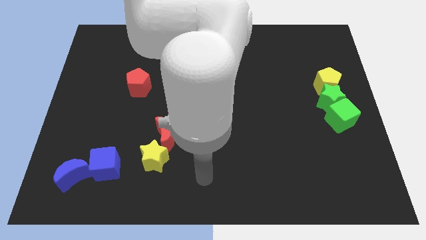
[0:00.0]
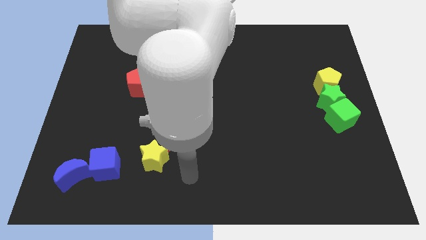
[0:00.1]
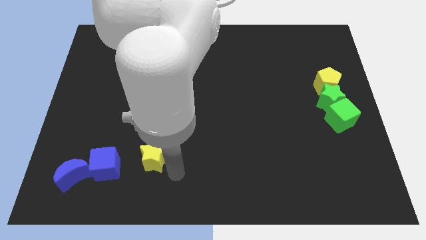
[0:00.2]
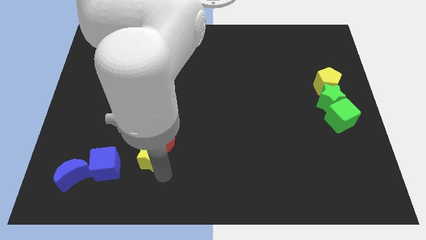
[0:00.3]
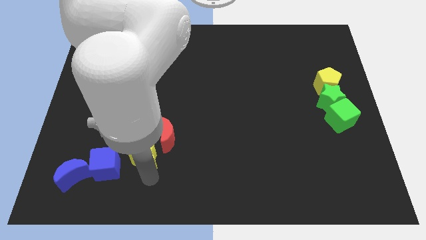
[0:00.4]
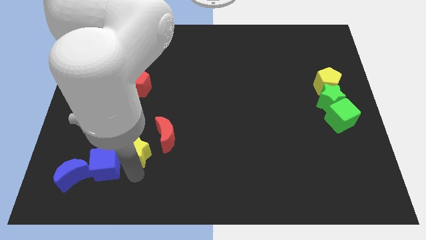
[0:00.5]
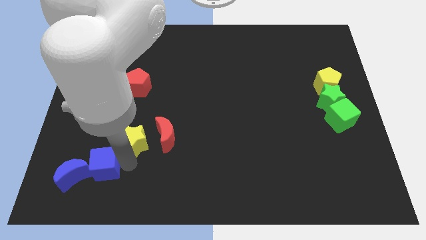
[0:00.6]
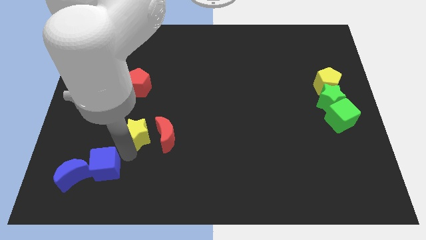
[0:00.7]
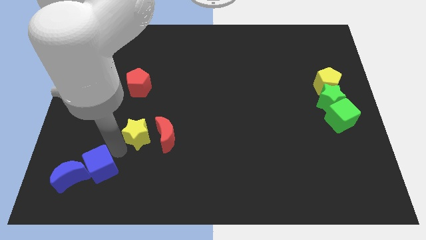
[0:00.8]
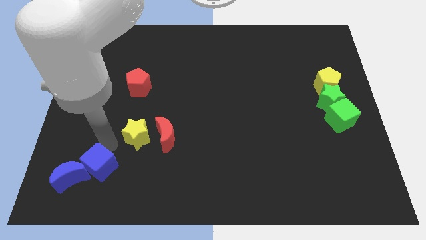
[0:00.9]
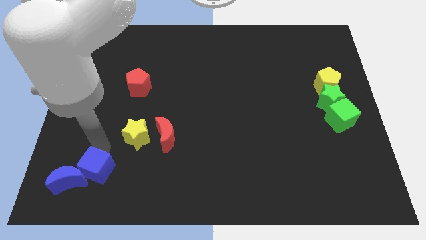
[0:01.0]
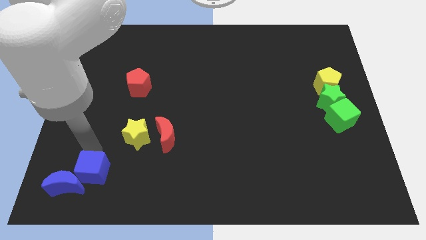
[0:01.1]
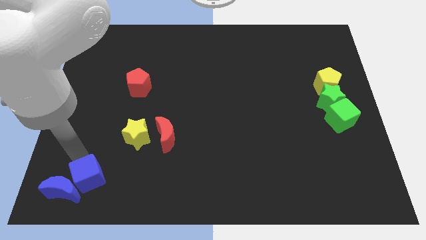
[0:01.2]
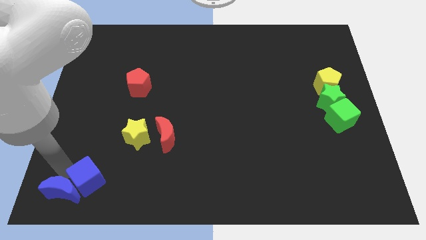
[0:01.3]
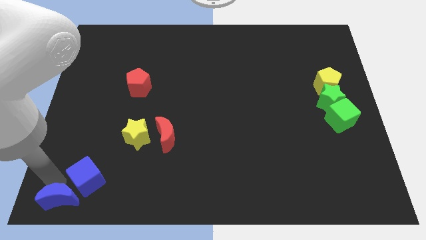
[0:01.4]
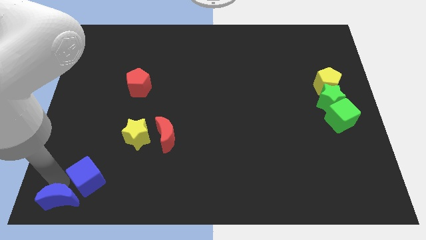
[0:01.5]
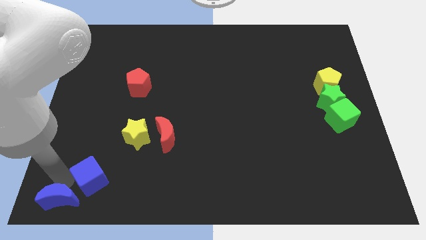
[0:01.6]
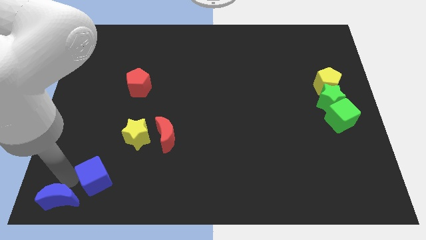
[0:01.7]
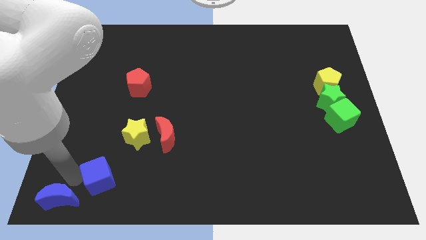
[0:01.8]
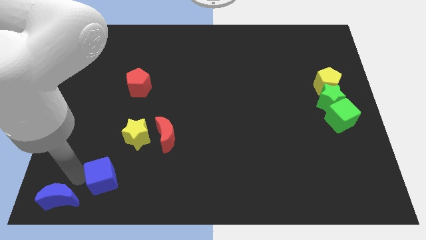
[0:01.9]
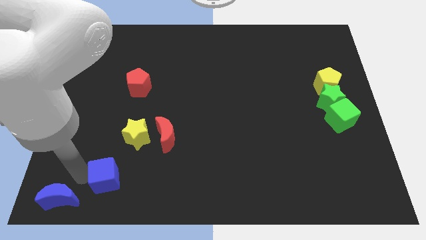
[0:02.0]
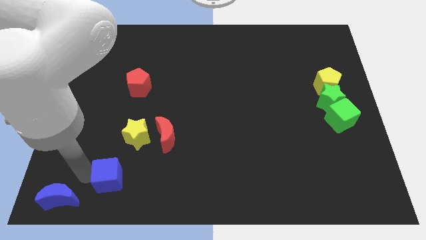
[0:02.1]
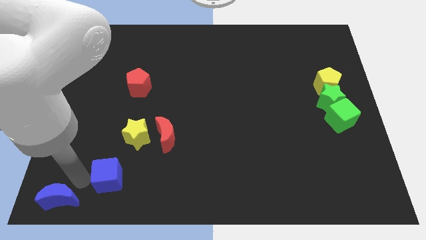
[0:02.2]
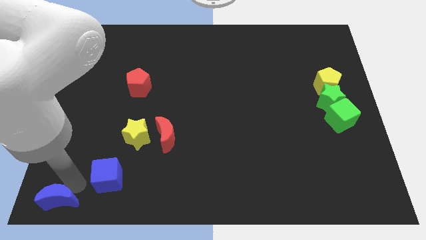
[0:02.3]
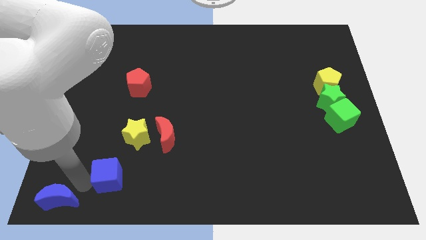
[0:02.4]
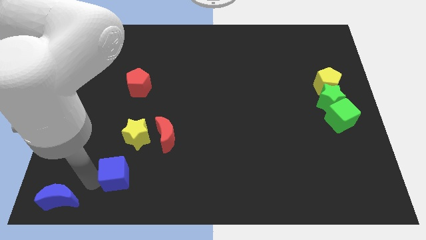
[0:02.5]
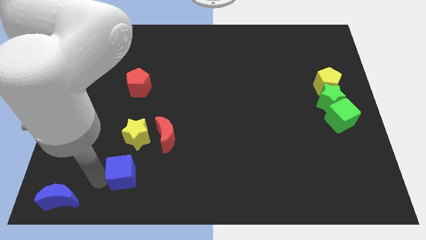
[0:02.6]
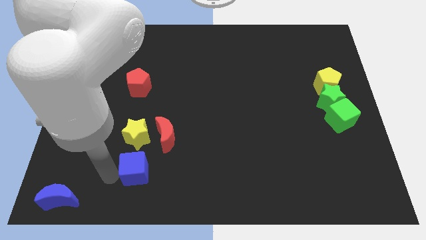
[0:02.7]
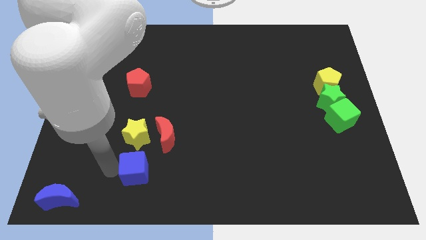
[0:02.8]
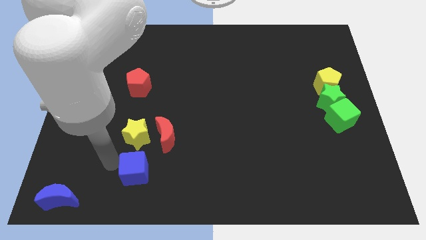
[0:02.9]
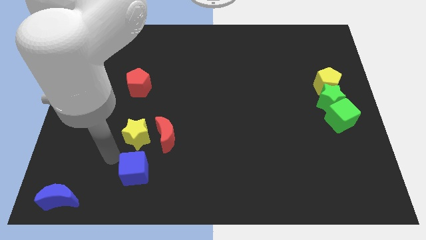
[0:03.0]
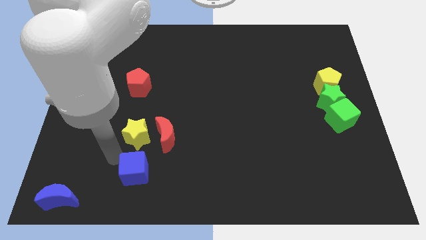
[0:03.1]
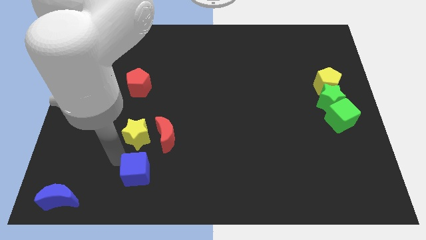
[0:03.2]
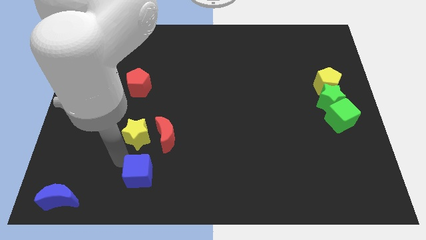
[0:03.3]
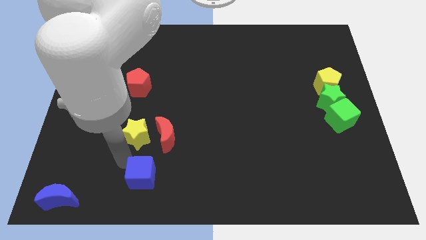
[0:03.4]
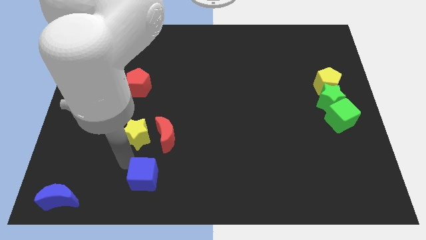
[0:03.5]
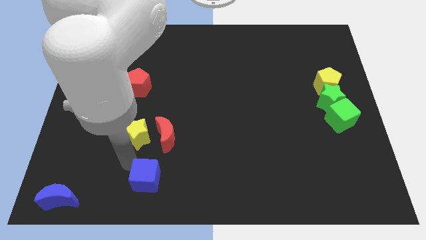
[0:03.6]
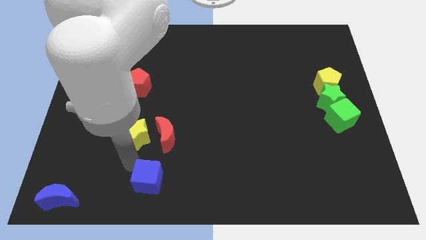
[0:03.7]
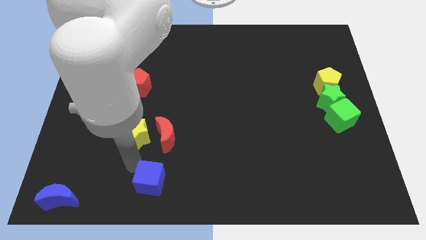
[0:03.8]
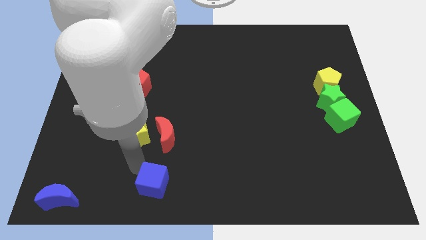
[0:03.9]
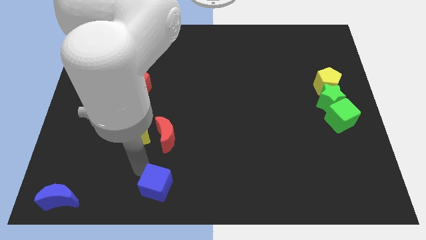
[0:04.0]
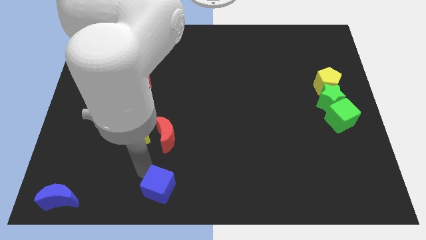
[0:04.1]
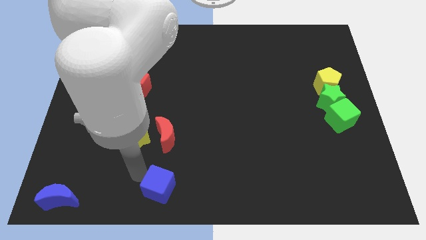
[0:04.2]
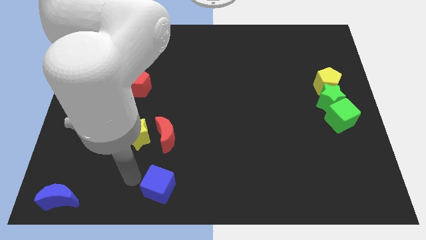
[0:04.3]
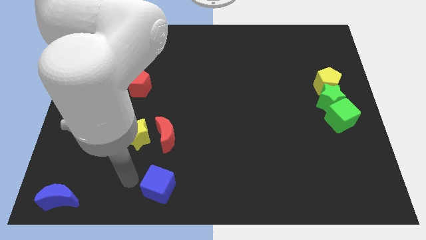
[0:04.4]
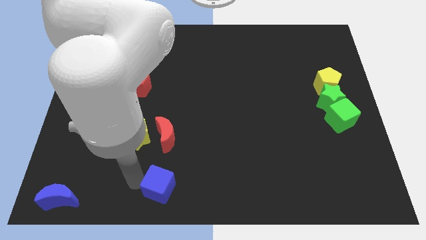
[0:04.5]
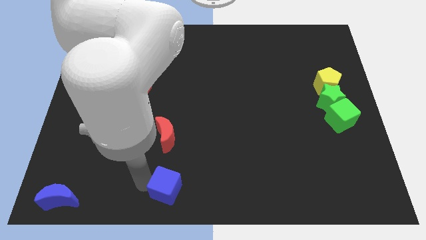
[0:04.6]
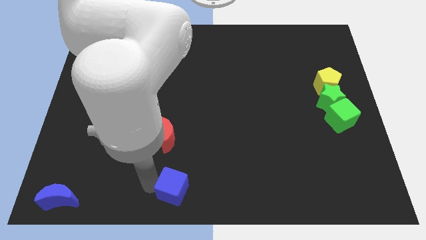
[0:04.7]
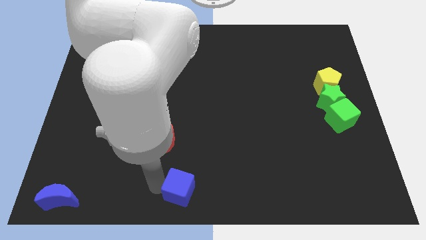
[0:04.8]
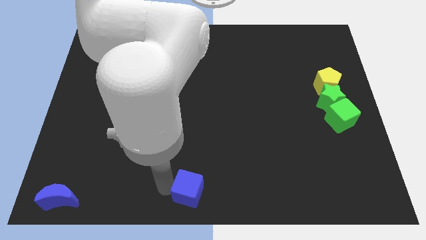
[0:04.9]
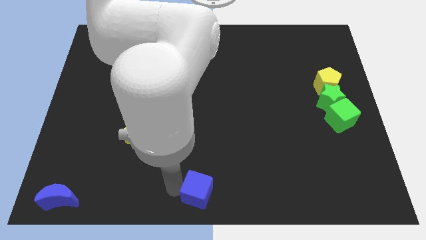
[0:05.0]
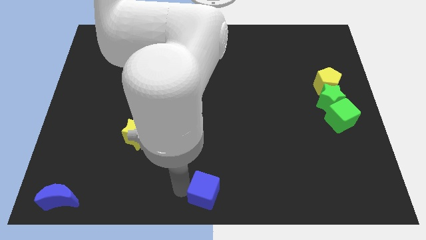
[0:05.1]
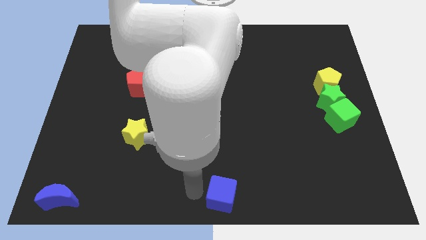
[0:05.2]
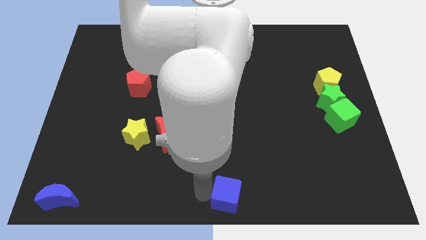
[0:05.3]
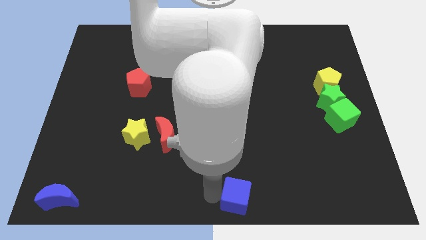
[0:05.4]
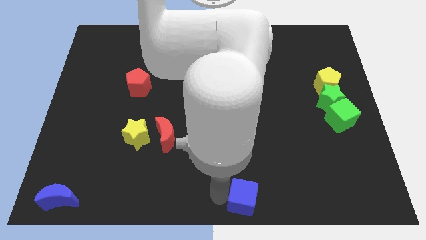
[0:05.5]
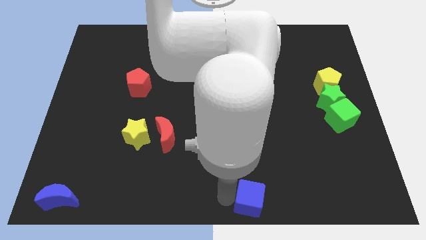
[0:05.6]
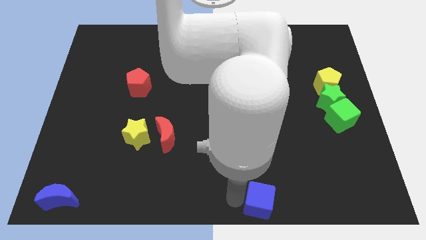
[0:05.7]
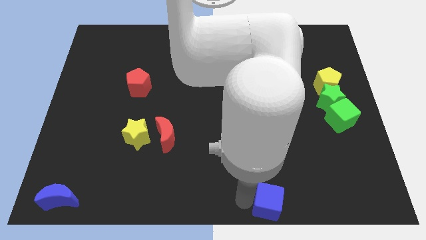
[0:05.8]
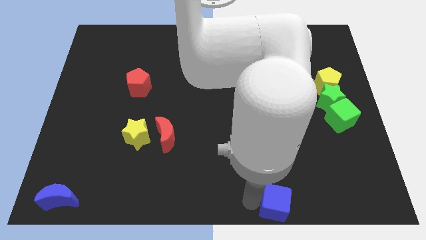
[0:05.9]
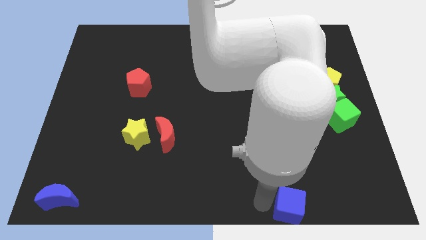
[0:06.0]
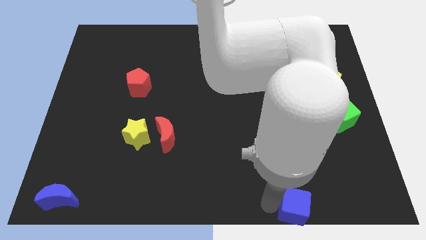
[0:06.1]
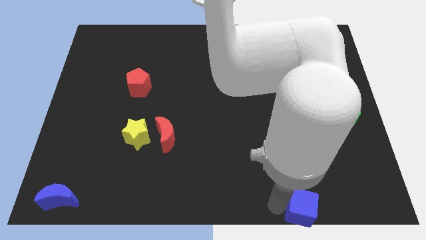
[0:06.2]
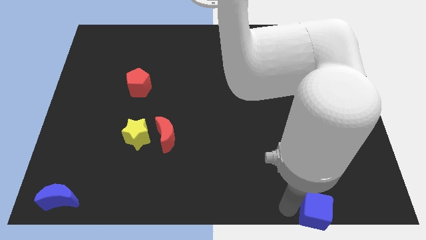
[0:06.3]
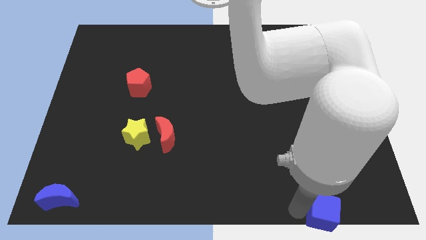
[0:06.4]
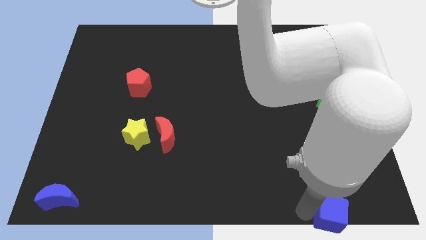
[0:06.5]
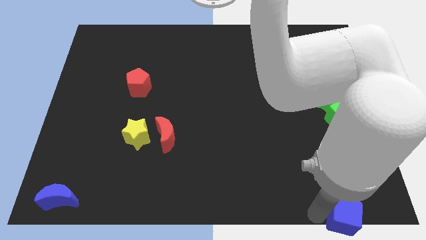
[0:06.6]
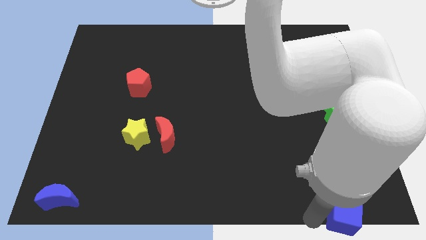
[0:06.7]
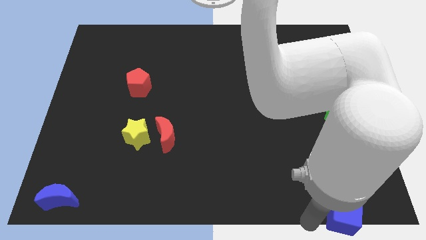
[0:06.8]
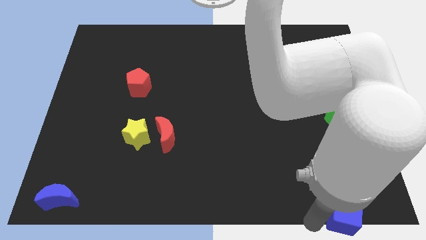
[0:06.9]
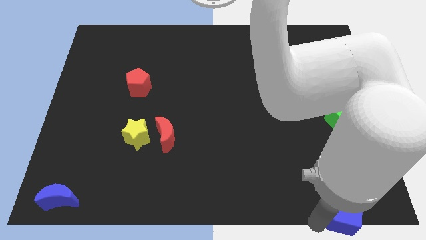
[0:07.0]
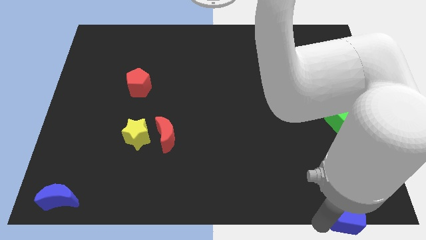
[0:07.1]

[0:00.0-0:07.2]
put the blue cube to the bottom right

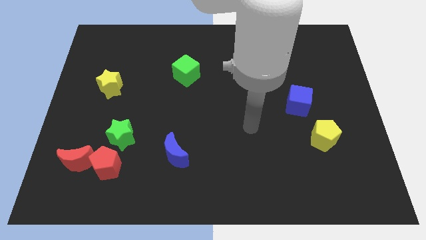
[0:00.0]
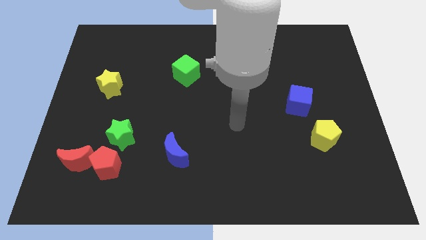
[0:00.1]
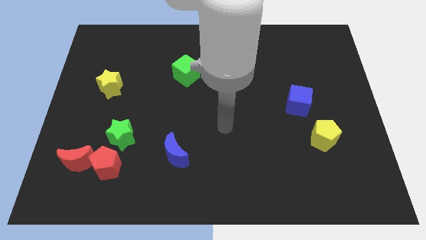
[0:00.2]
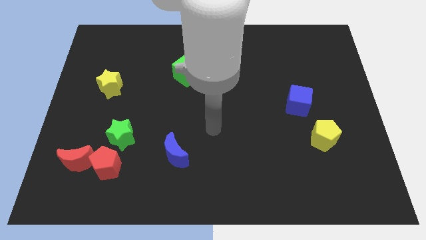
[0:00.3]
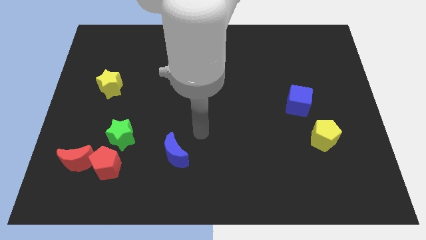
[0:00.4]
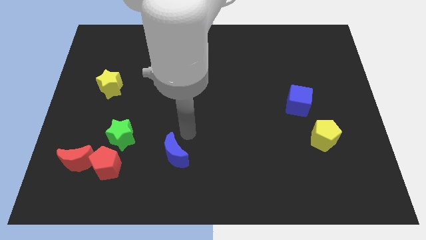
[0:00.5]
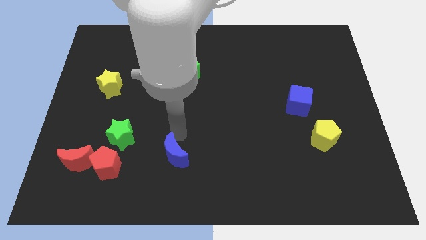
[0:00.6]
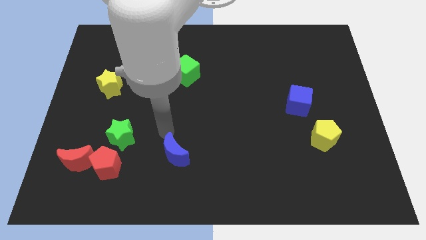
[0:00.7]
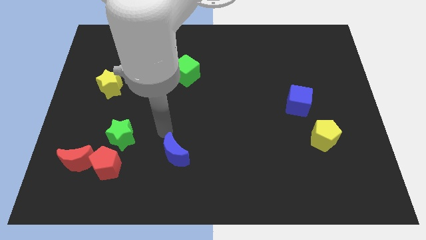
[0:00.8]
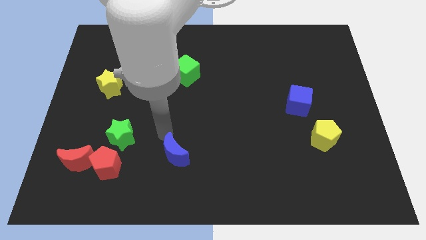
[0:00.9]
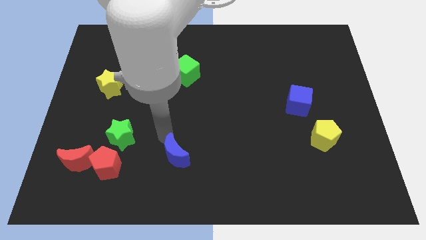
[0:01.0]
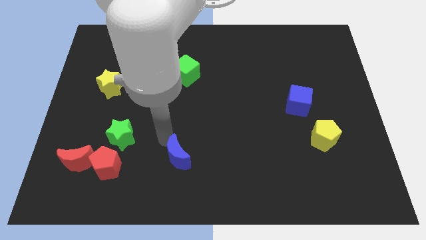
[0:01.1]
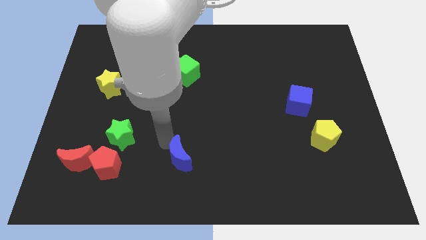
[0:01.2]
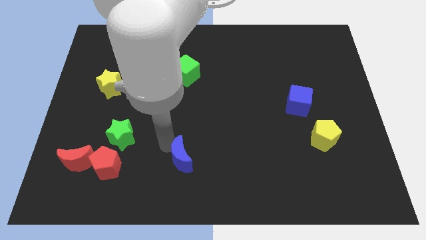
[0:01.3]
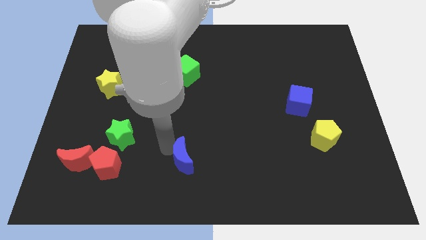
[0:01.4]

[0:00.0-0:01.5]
push the blue moon to the bottom side
